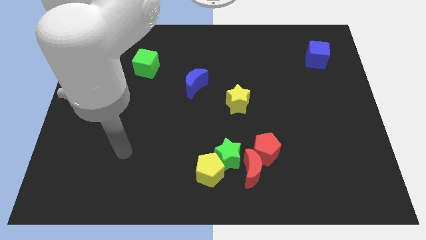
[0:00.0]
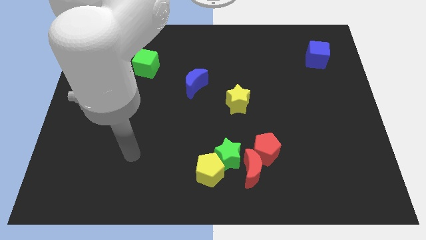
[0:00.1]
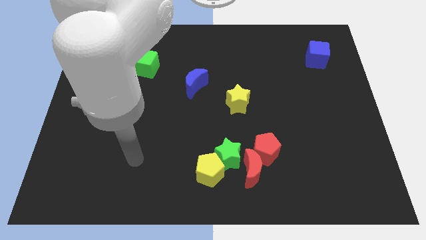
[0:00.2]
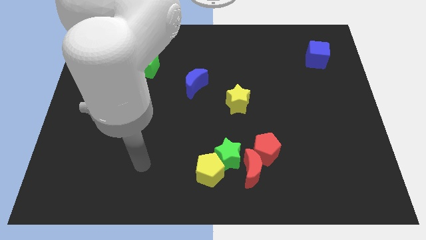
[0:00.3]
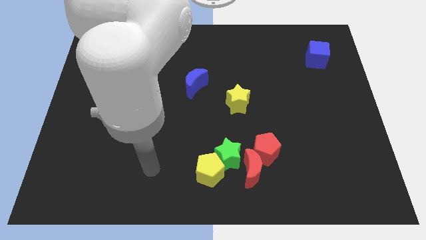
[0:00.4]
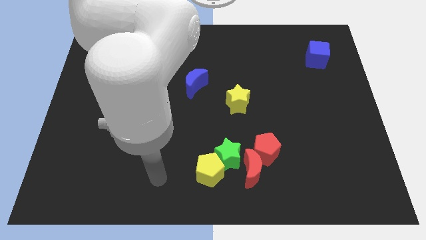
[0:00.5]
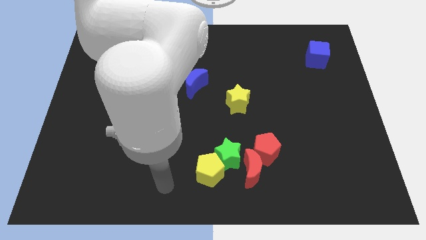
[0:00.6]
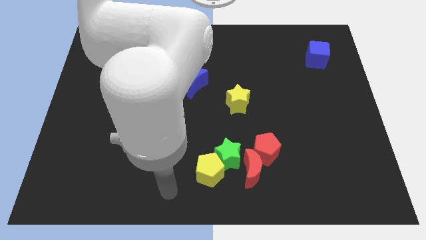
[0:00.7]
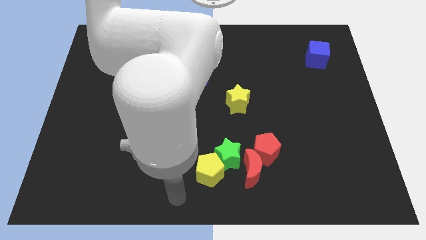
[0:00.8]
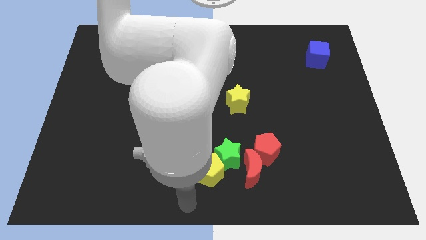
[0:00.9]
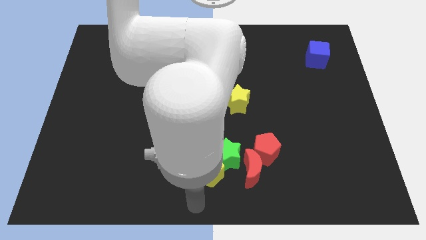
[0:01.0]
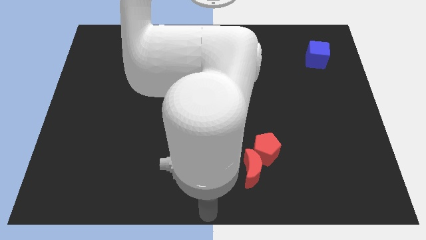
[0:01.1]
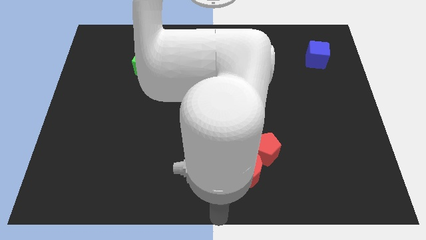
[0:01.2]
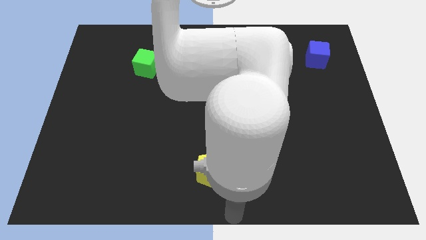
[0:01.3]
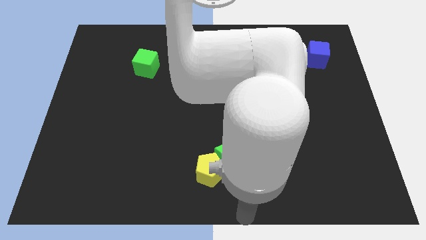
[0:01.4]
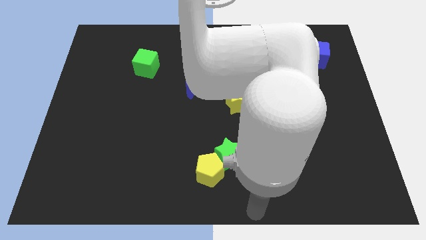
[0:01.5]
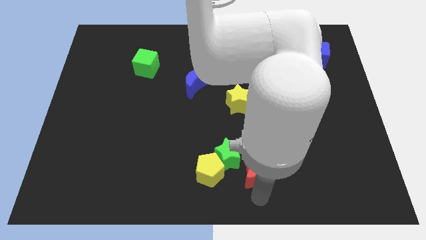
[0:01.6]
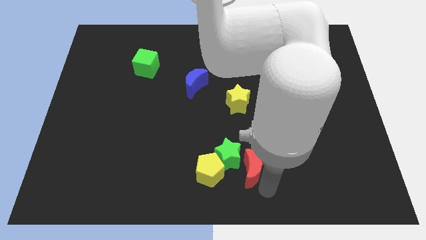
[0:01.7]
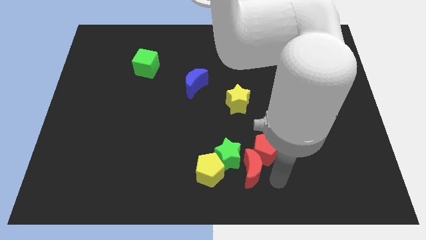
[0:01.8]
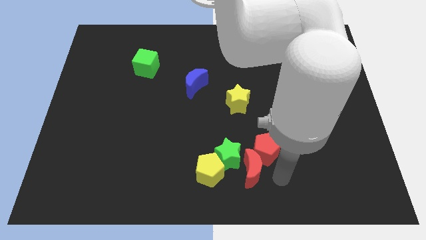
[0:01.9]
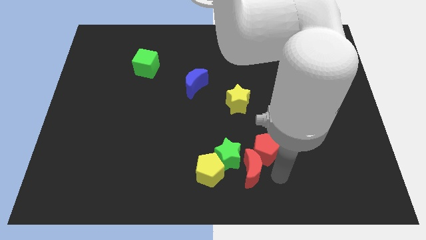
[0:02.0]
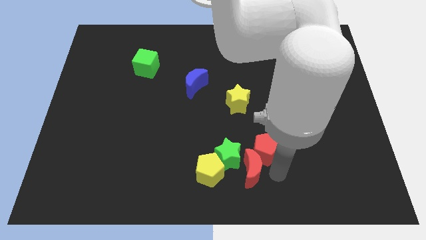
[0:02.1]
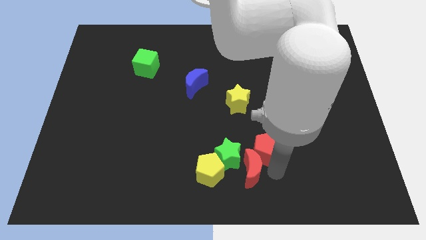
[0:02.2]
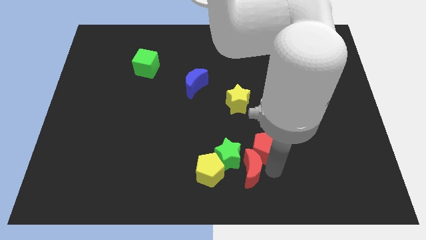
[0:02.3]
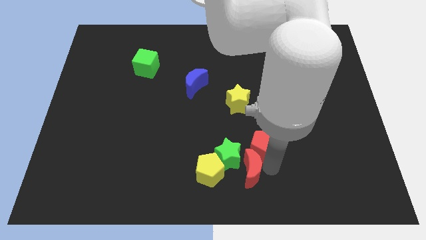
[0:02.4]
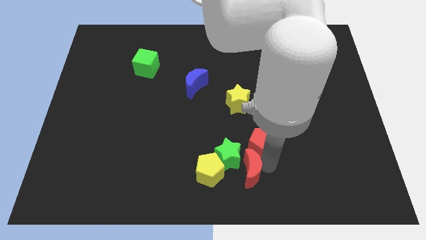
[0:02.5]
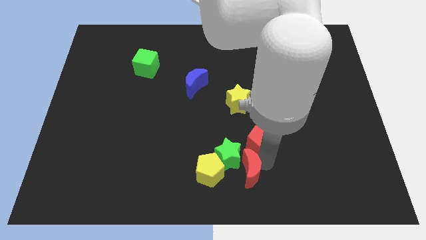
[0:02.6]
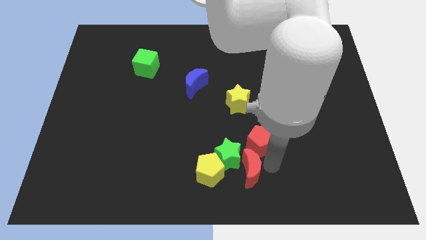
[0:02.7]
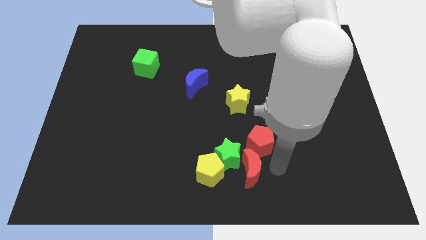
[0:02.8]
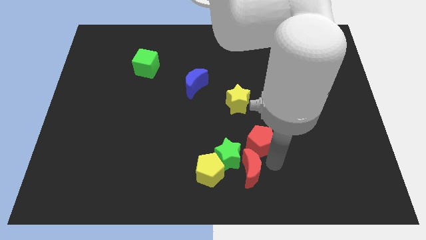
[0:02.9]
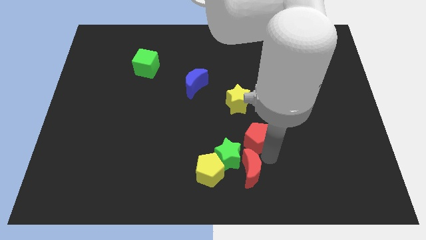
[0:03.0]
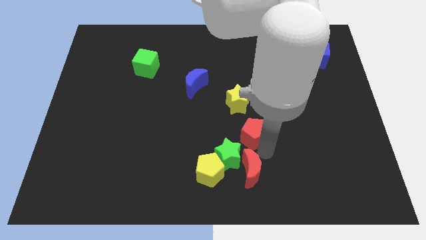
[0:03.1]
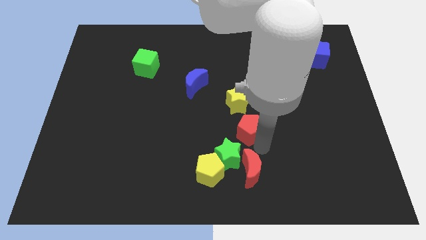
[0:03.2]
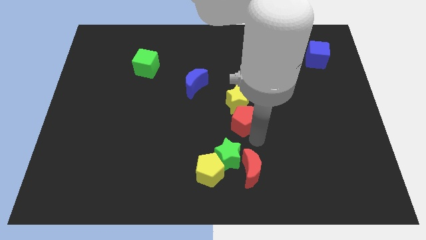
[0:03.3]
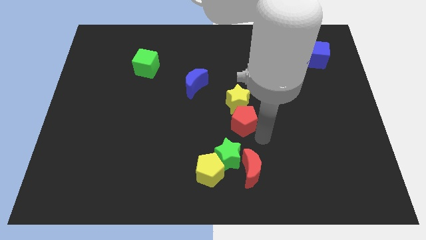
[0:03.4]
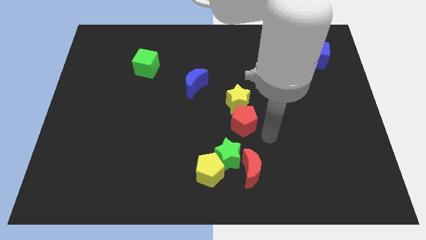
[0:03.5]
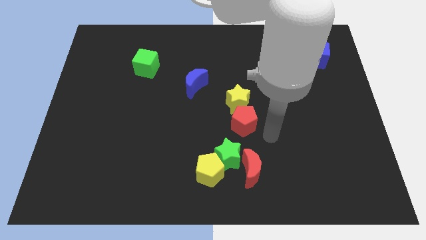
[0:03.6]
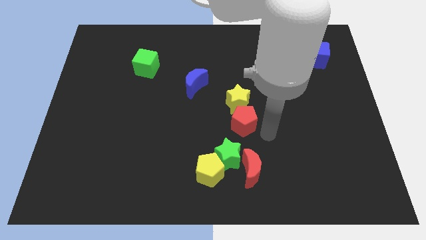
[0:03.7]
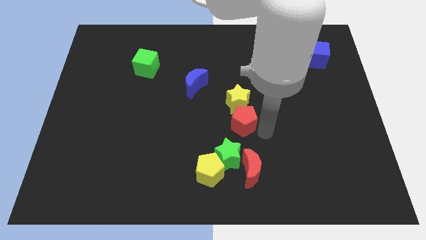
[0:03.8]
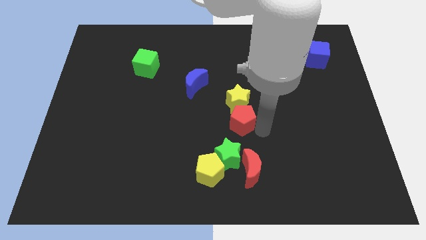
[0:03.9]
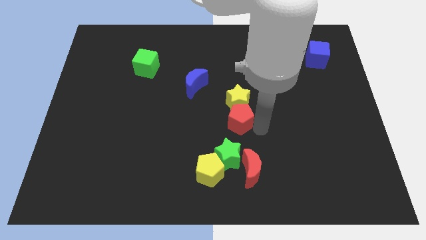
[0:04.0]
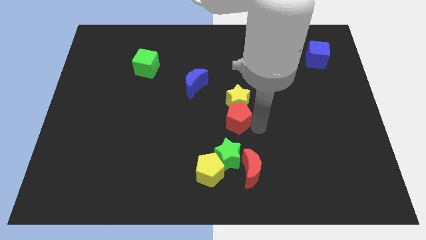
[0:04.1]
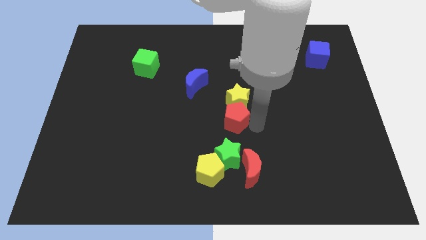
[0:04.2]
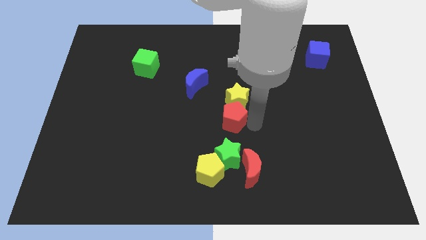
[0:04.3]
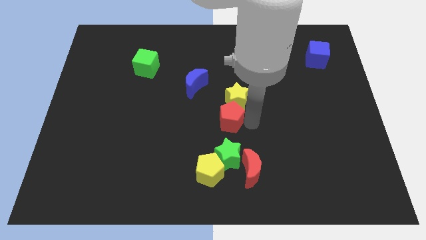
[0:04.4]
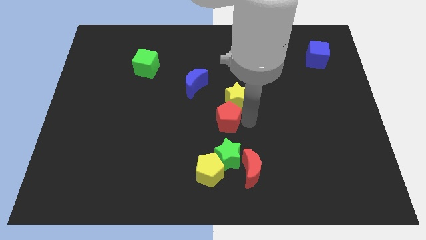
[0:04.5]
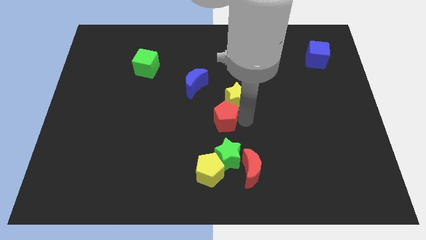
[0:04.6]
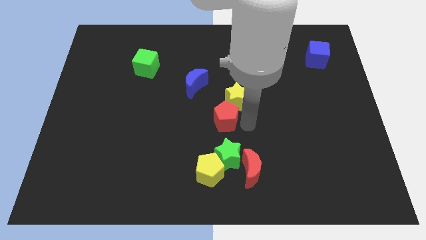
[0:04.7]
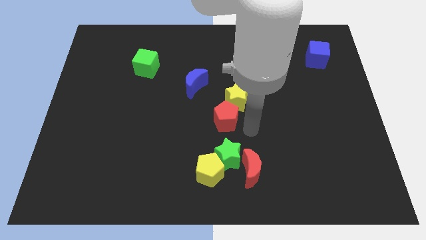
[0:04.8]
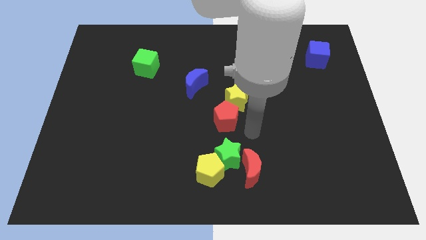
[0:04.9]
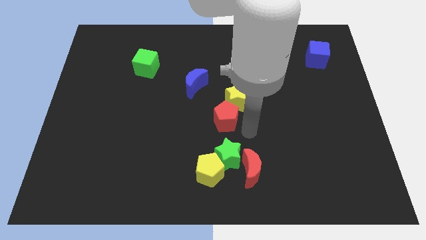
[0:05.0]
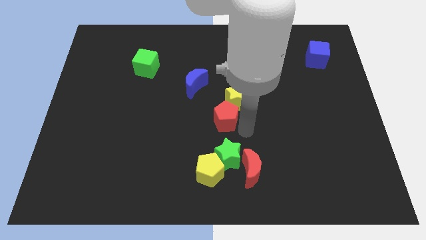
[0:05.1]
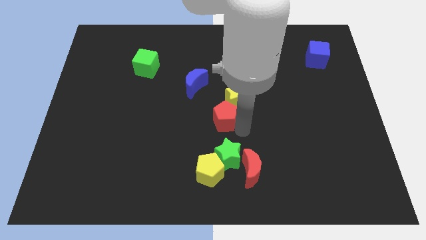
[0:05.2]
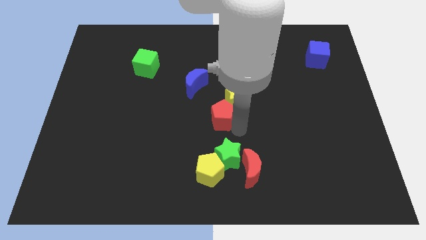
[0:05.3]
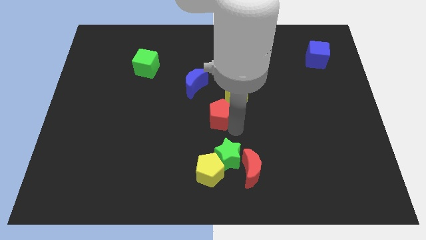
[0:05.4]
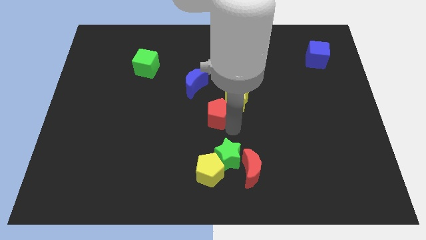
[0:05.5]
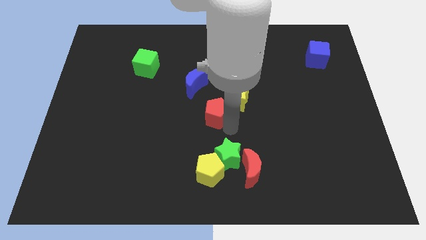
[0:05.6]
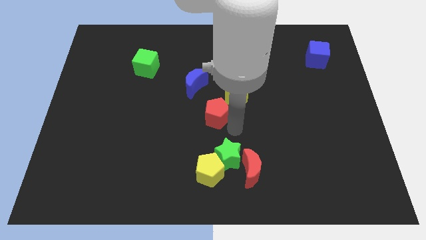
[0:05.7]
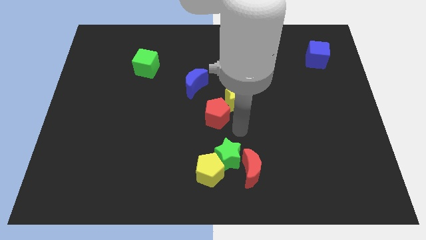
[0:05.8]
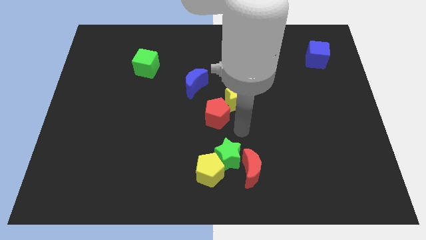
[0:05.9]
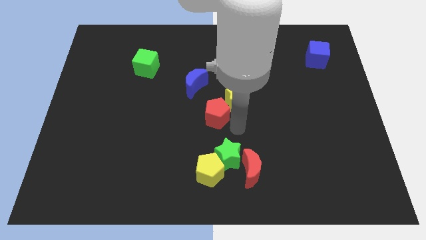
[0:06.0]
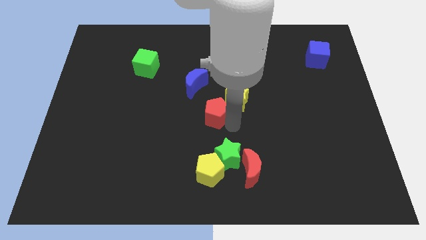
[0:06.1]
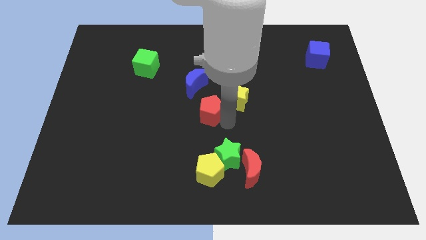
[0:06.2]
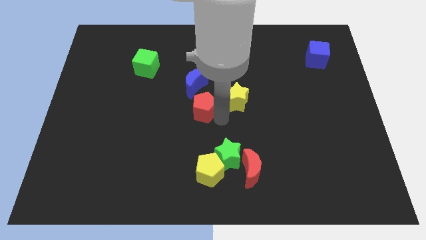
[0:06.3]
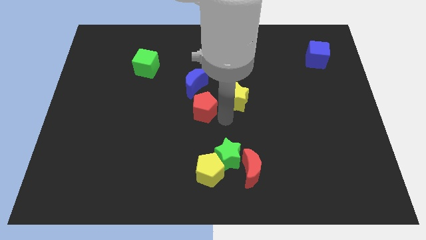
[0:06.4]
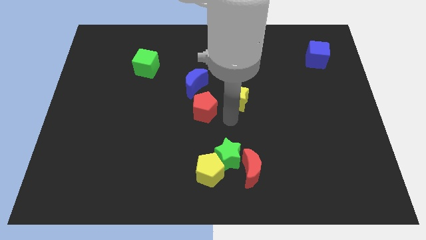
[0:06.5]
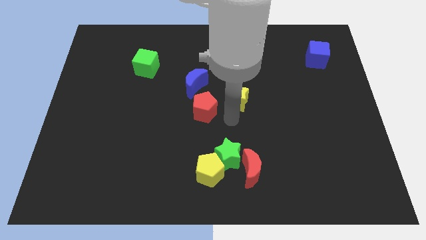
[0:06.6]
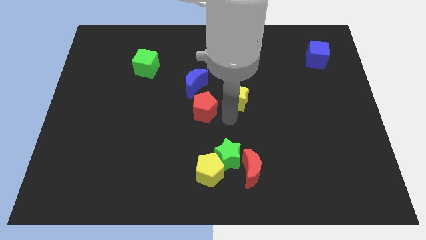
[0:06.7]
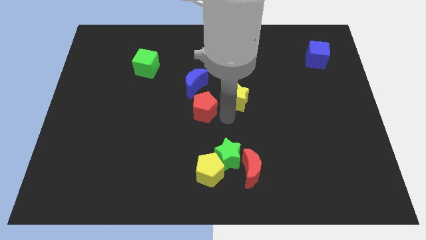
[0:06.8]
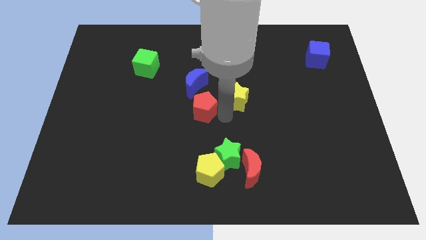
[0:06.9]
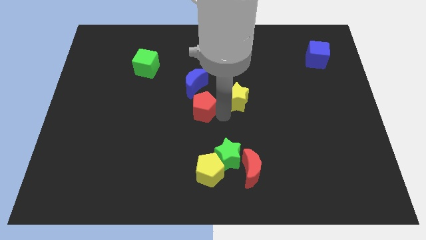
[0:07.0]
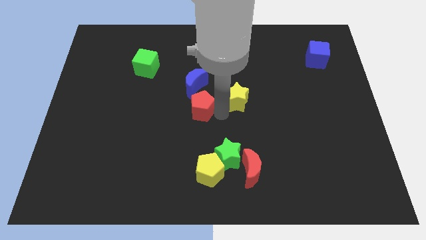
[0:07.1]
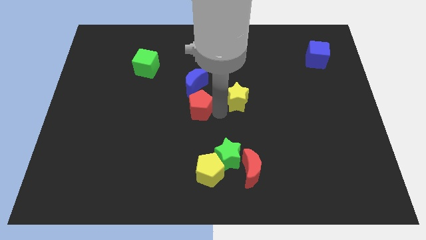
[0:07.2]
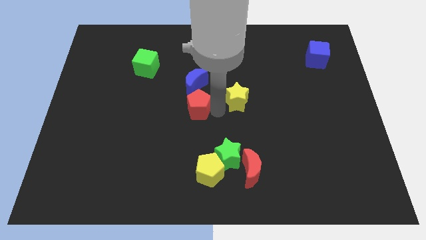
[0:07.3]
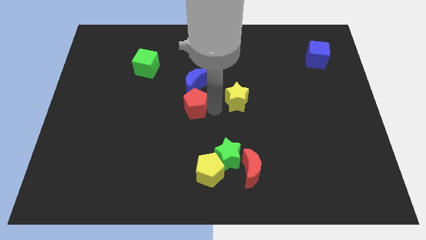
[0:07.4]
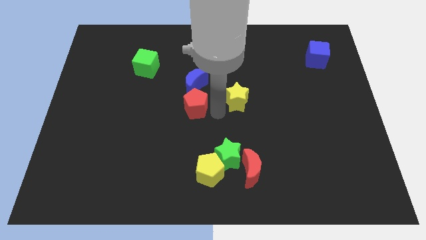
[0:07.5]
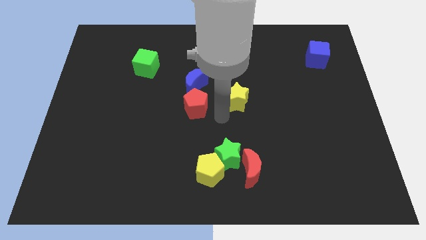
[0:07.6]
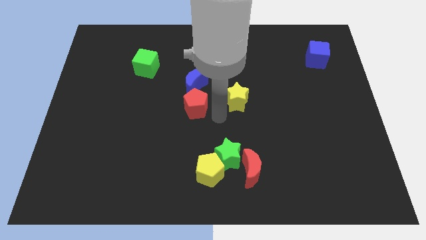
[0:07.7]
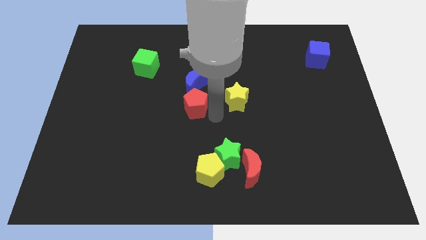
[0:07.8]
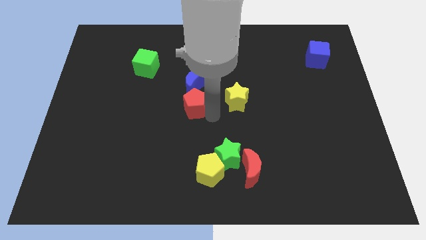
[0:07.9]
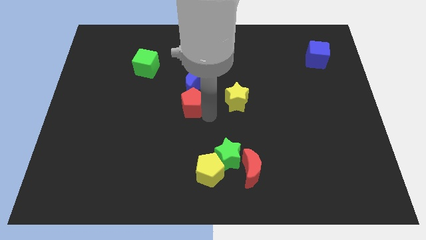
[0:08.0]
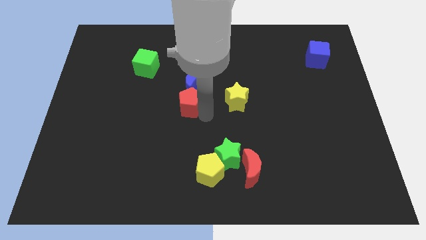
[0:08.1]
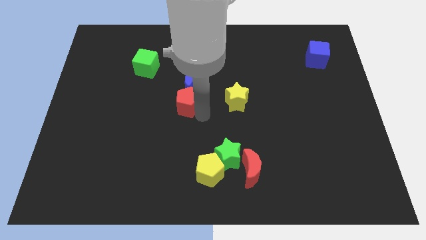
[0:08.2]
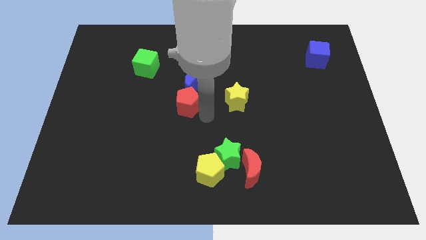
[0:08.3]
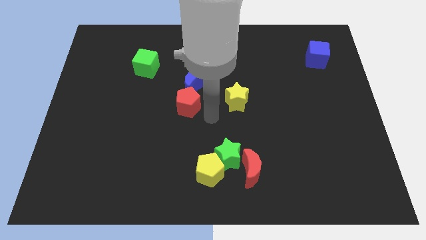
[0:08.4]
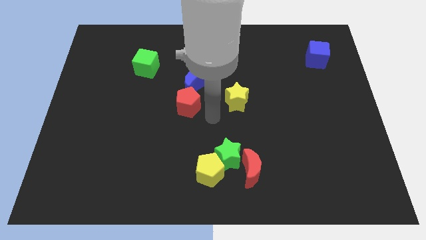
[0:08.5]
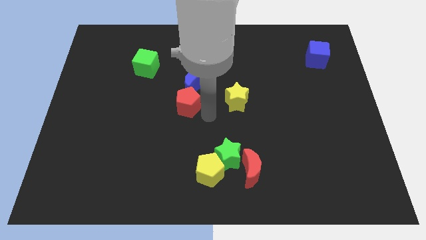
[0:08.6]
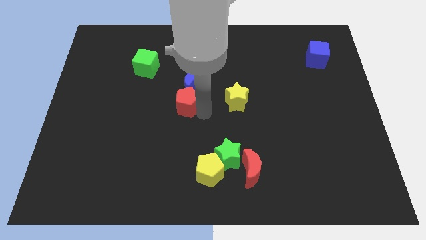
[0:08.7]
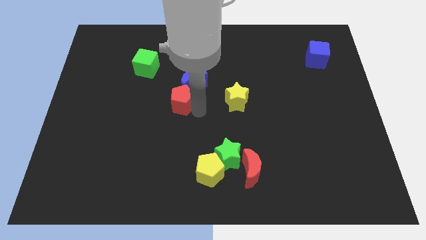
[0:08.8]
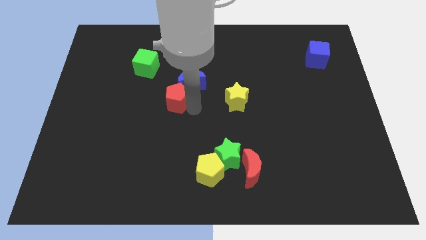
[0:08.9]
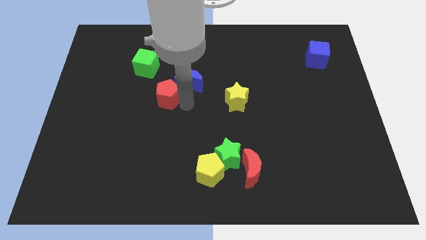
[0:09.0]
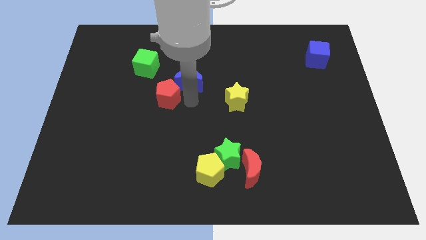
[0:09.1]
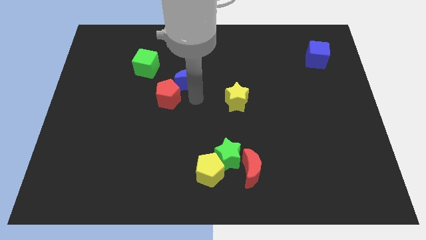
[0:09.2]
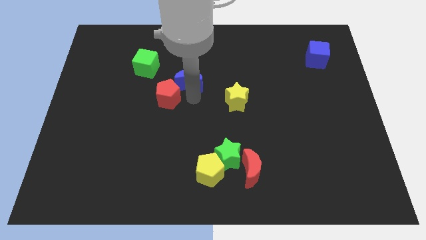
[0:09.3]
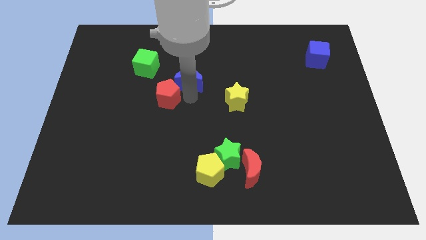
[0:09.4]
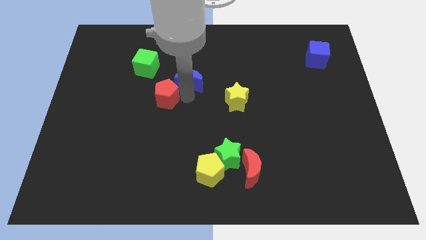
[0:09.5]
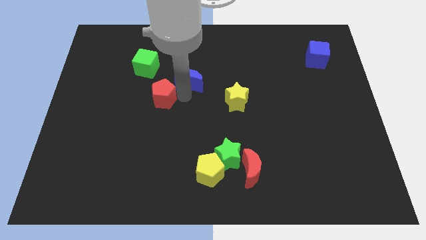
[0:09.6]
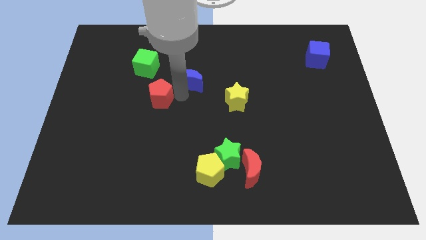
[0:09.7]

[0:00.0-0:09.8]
push the red pentagon to the bottom of the green cube
